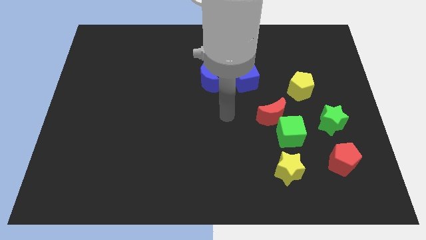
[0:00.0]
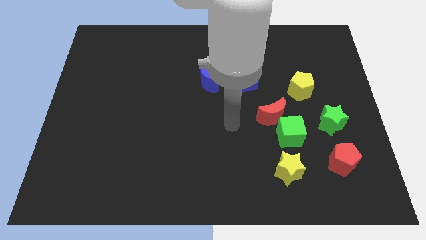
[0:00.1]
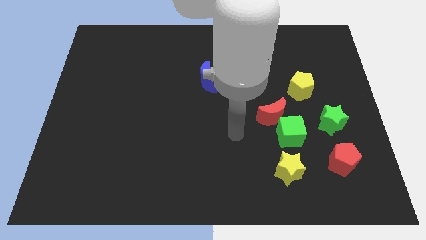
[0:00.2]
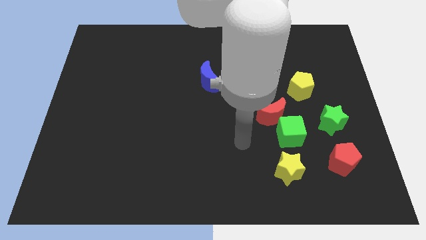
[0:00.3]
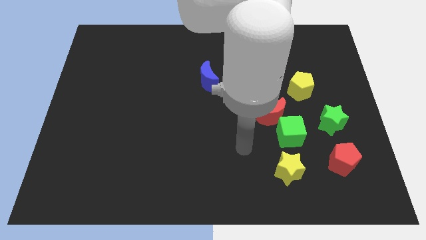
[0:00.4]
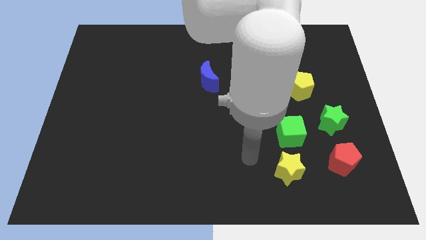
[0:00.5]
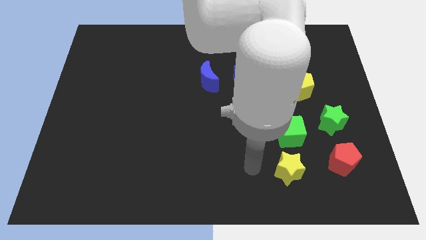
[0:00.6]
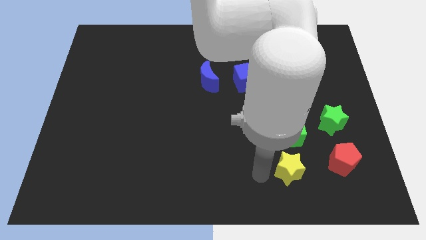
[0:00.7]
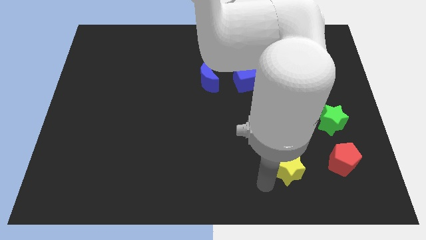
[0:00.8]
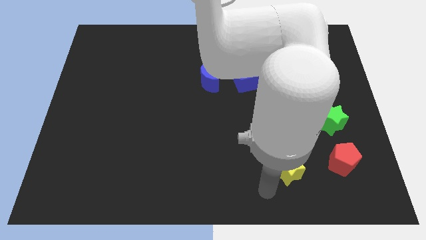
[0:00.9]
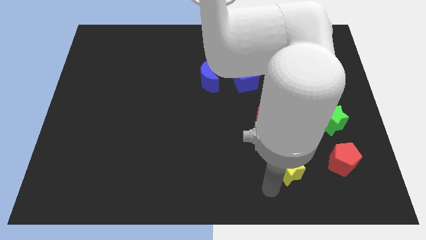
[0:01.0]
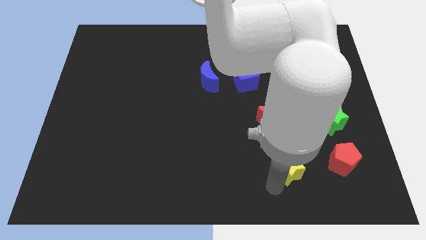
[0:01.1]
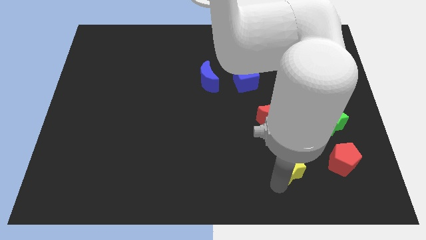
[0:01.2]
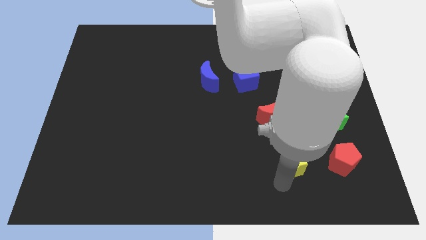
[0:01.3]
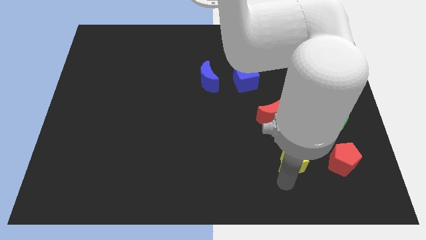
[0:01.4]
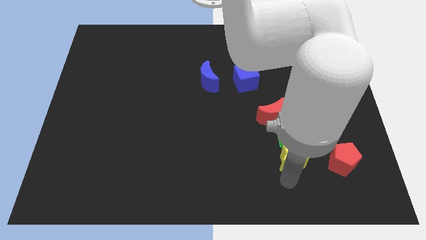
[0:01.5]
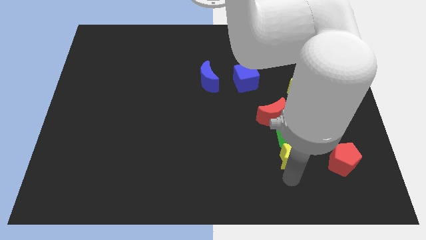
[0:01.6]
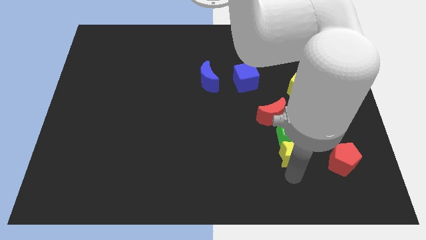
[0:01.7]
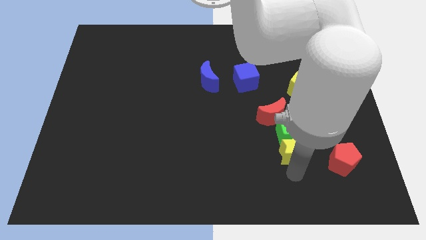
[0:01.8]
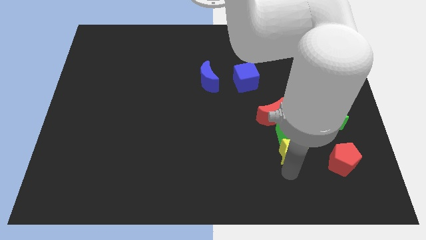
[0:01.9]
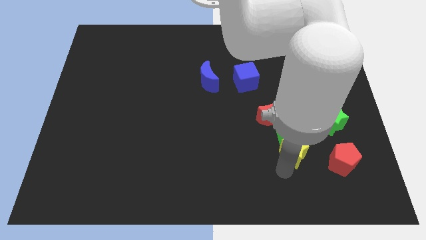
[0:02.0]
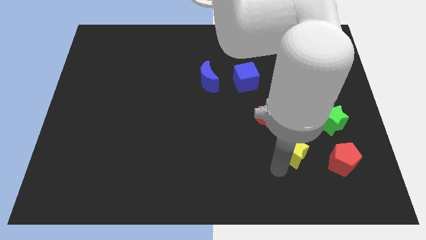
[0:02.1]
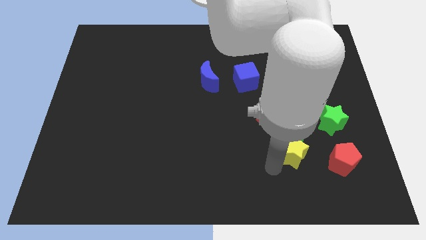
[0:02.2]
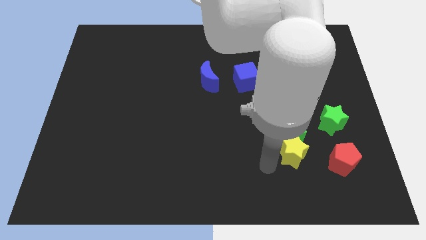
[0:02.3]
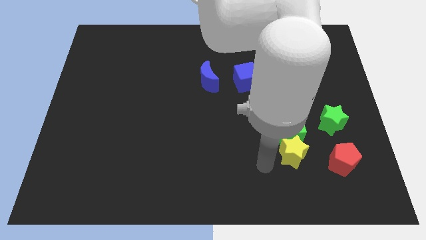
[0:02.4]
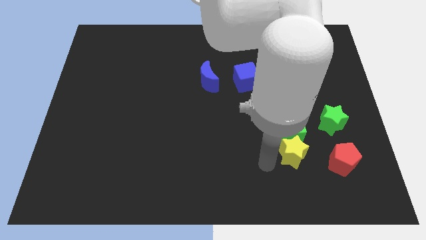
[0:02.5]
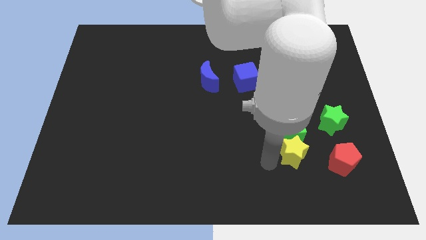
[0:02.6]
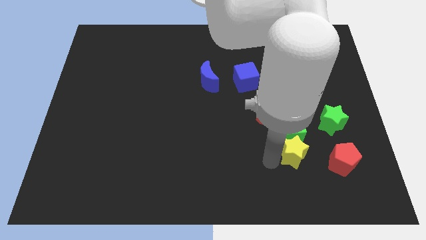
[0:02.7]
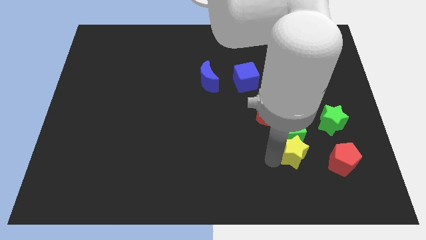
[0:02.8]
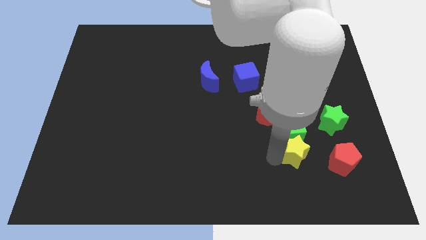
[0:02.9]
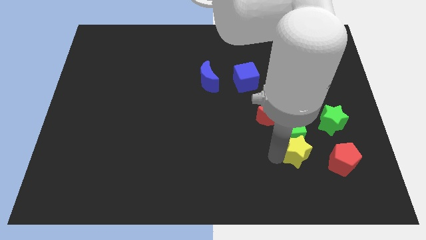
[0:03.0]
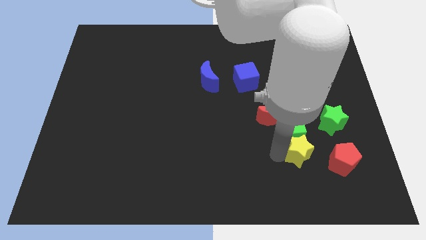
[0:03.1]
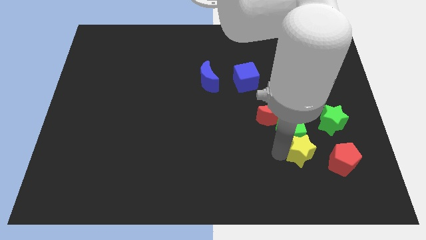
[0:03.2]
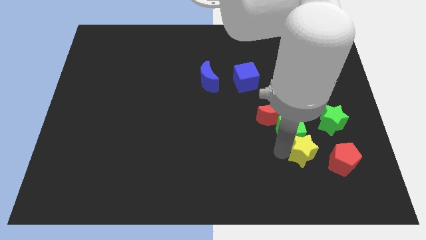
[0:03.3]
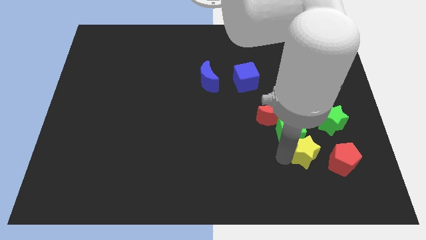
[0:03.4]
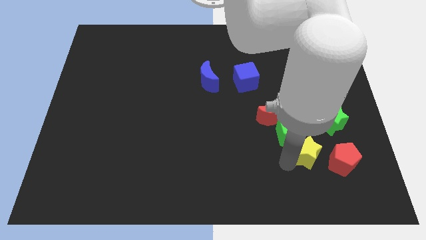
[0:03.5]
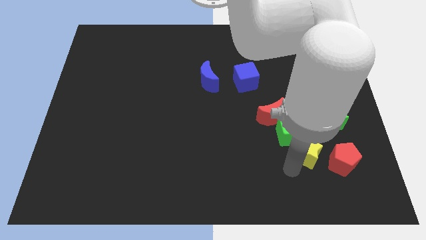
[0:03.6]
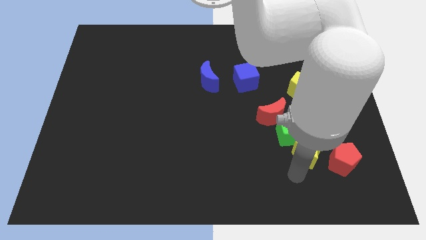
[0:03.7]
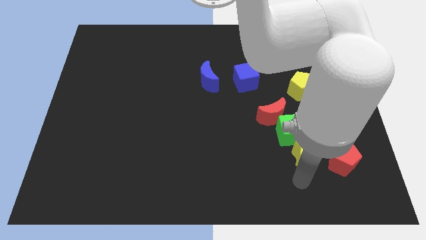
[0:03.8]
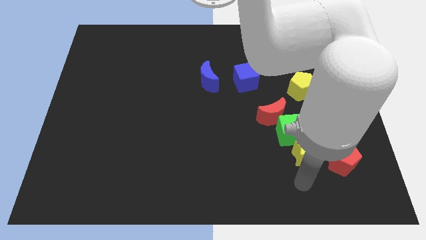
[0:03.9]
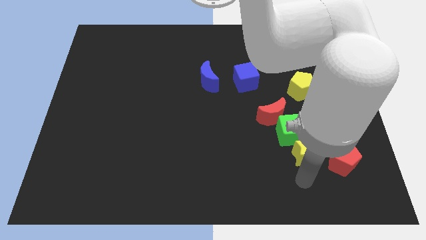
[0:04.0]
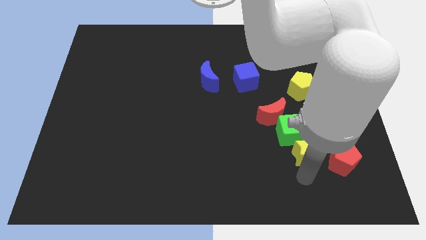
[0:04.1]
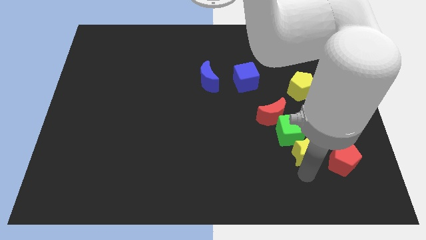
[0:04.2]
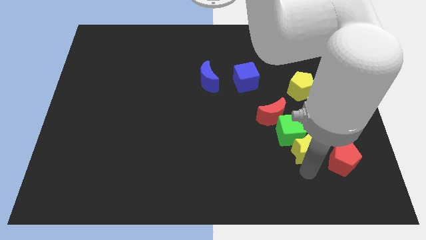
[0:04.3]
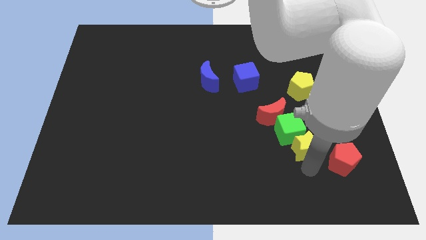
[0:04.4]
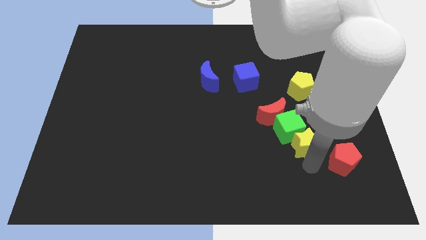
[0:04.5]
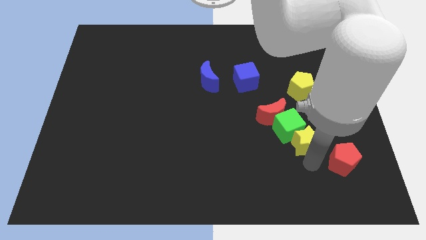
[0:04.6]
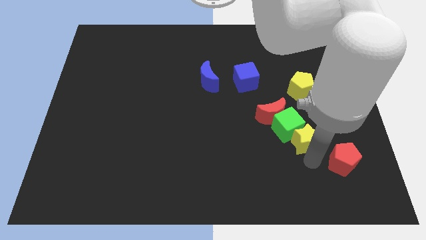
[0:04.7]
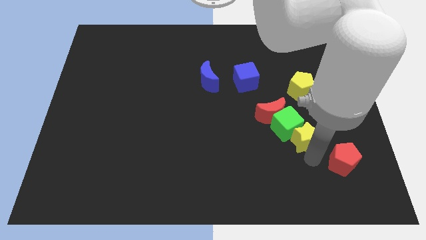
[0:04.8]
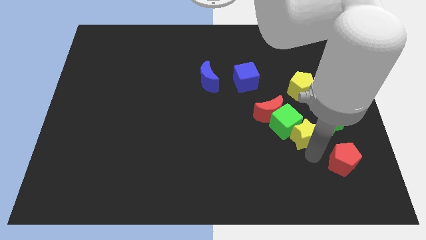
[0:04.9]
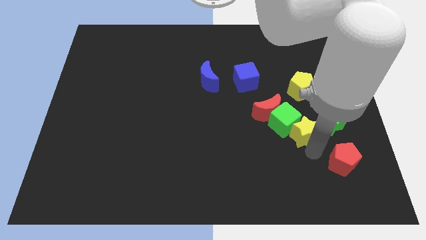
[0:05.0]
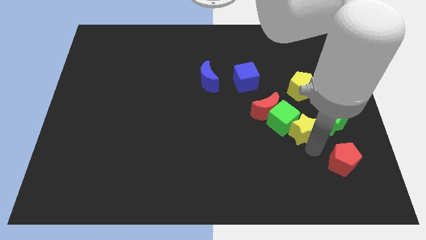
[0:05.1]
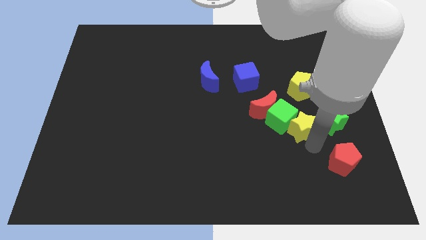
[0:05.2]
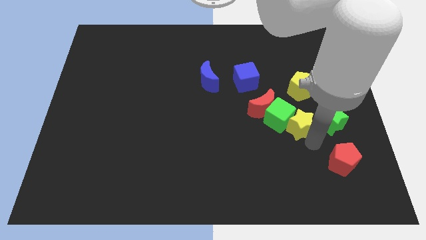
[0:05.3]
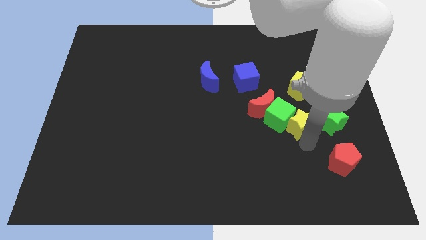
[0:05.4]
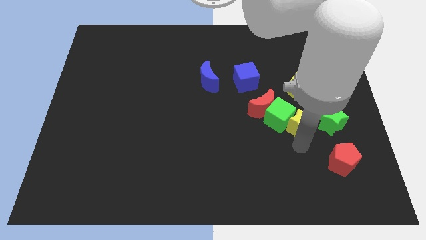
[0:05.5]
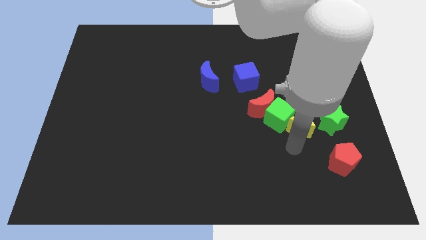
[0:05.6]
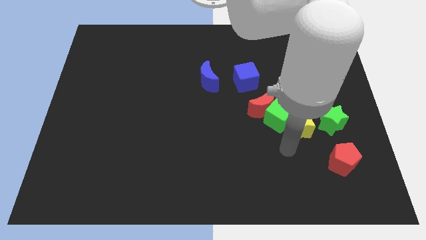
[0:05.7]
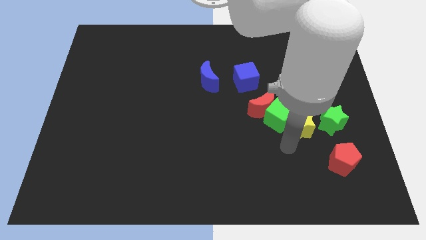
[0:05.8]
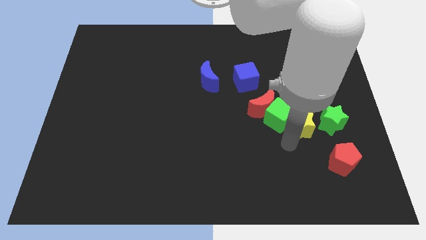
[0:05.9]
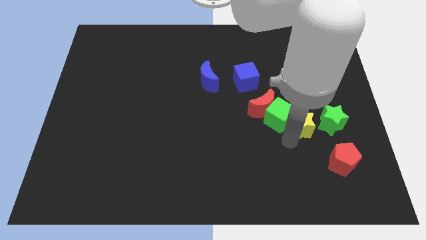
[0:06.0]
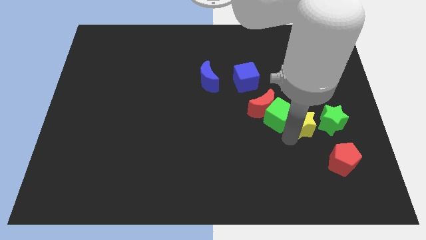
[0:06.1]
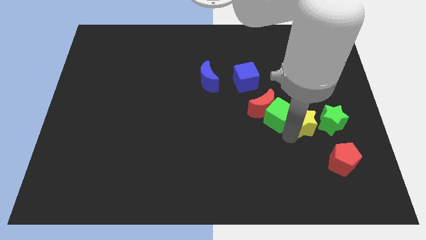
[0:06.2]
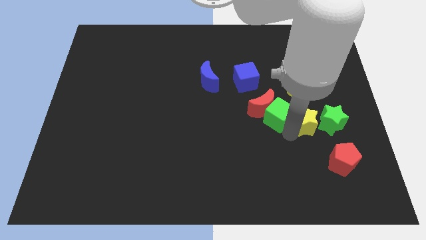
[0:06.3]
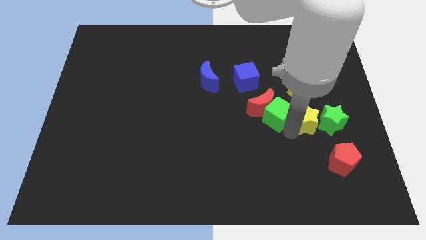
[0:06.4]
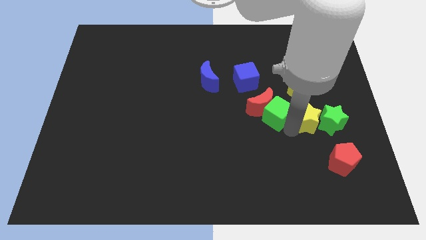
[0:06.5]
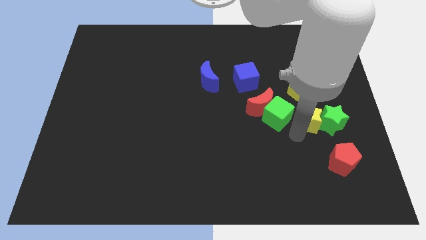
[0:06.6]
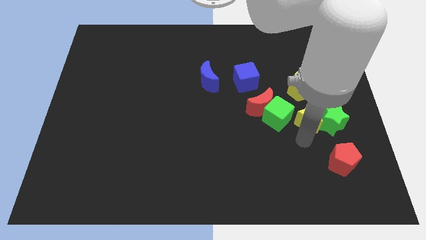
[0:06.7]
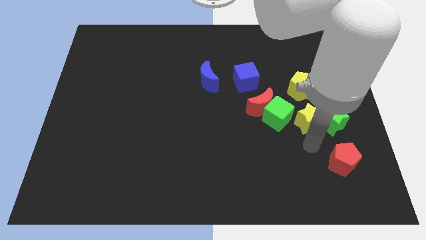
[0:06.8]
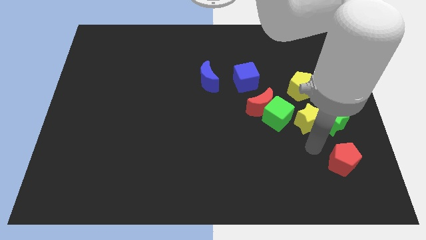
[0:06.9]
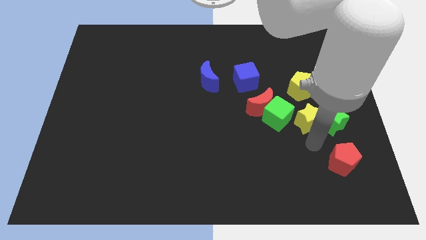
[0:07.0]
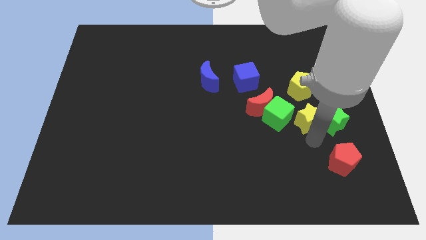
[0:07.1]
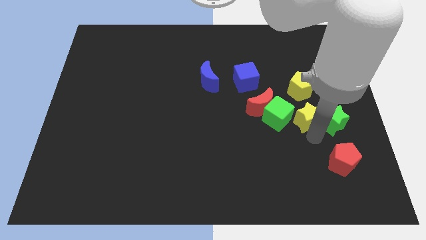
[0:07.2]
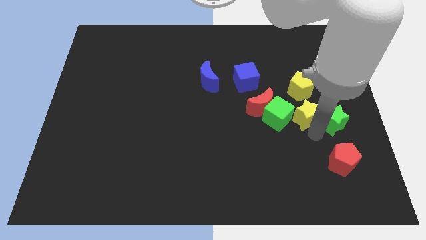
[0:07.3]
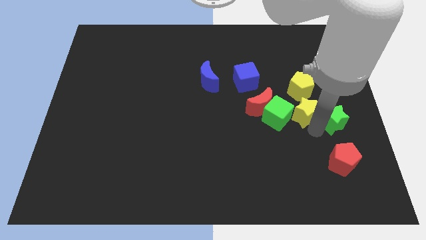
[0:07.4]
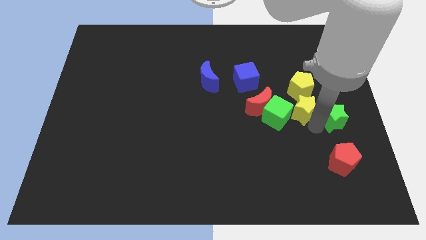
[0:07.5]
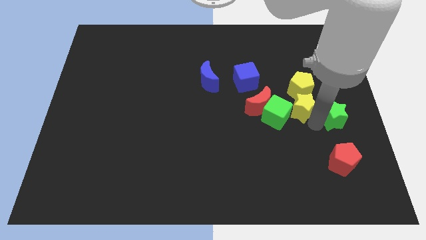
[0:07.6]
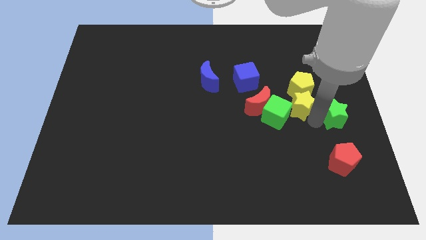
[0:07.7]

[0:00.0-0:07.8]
push the yellow star towards the yellow pentagon
